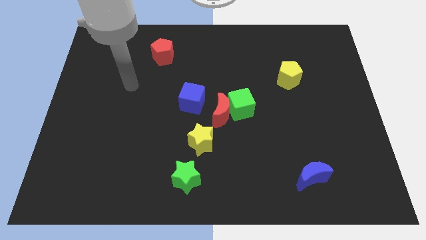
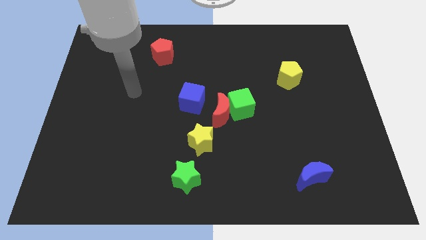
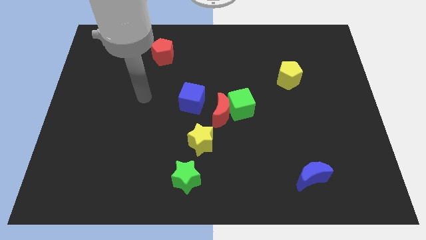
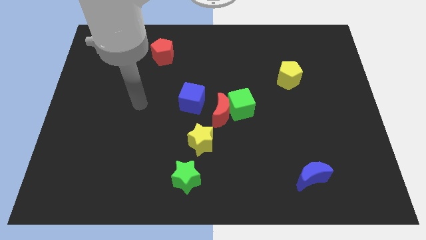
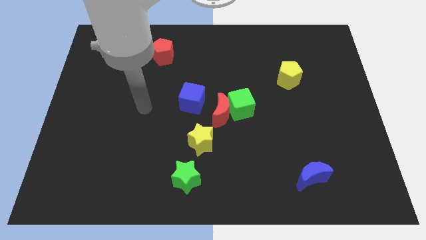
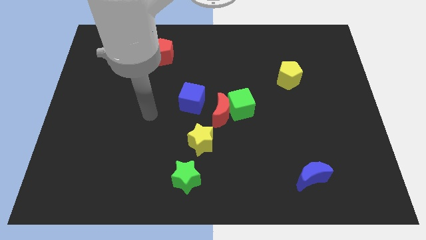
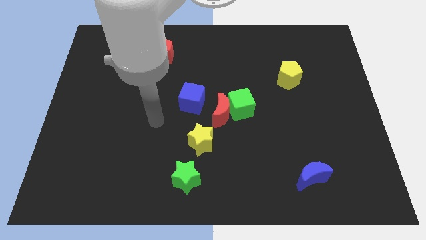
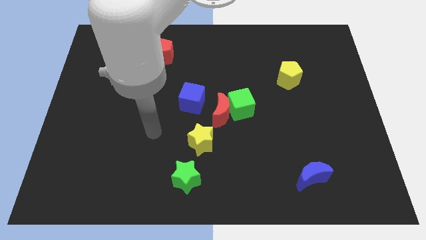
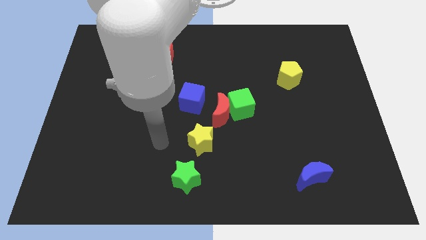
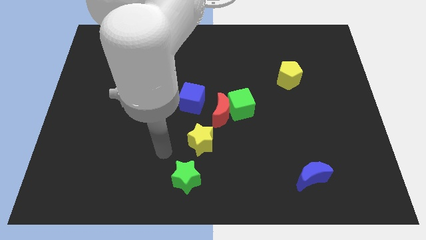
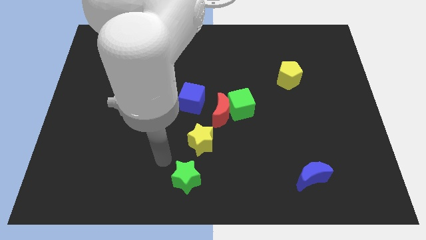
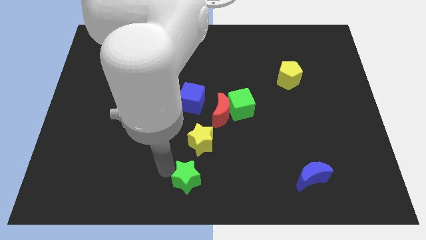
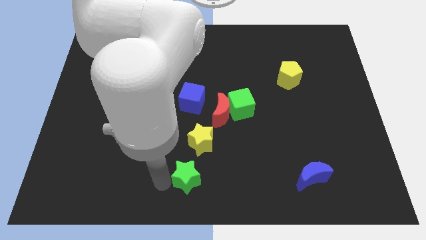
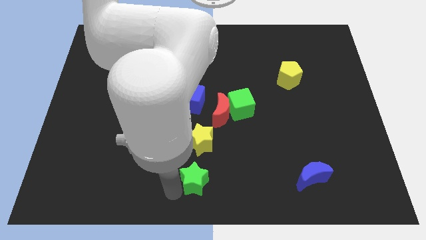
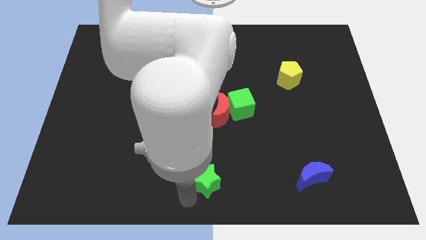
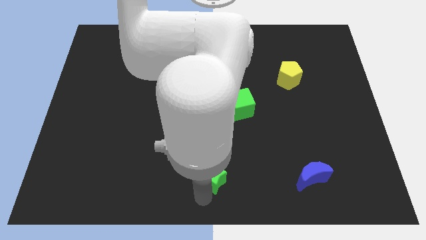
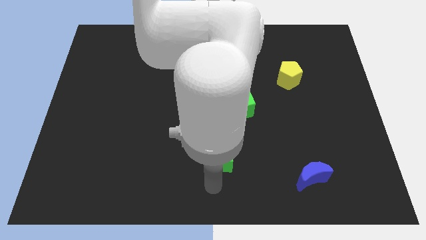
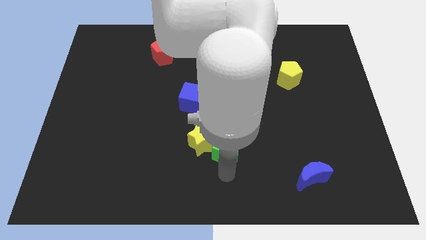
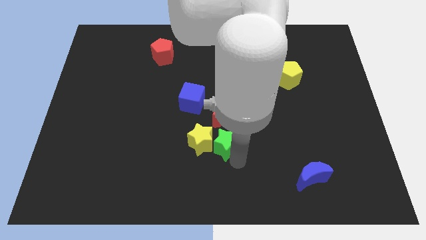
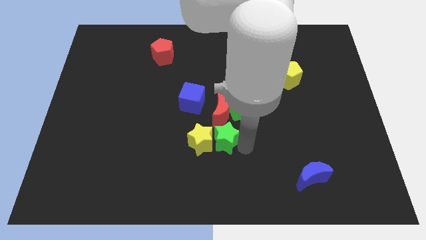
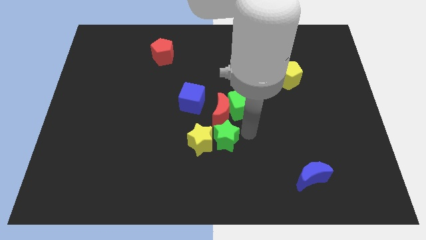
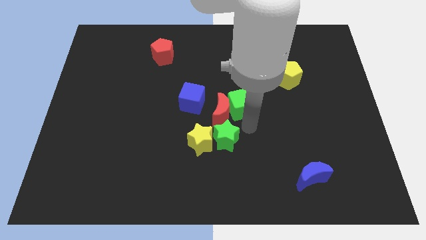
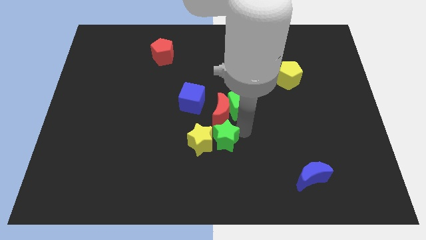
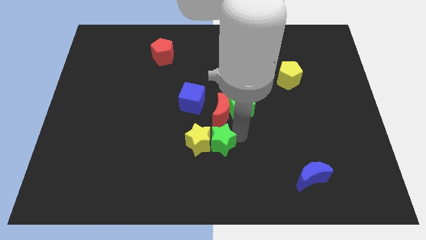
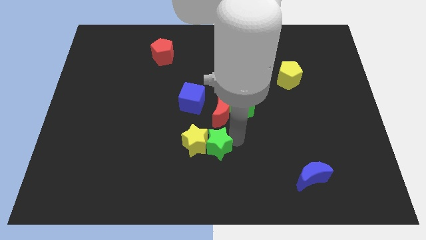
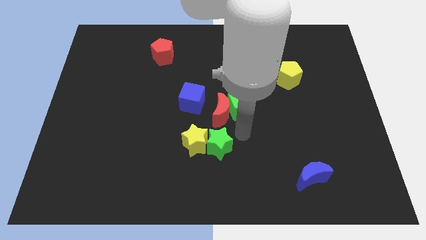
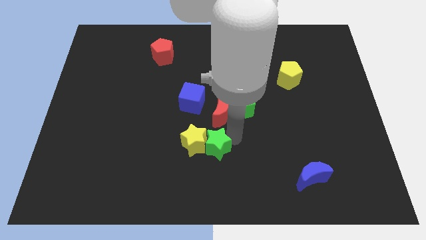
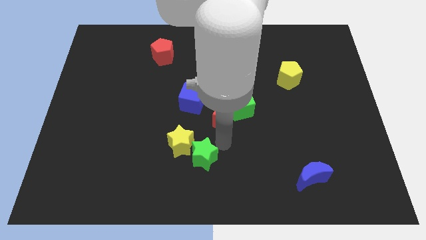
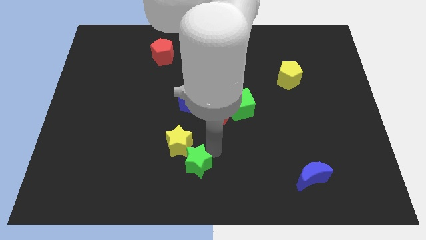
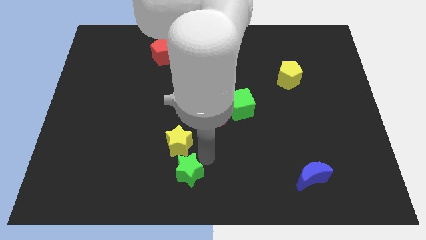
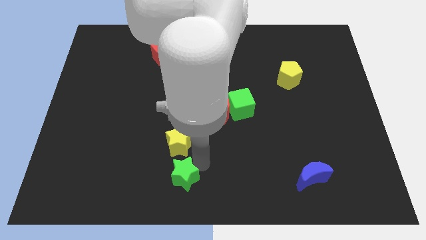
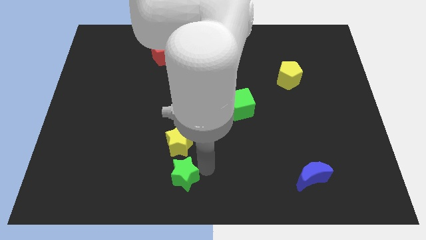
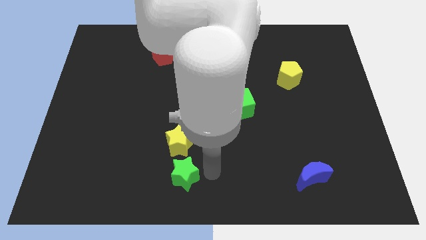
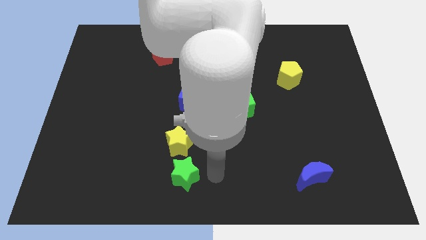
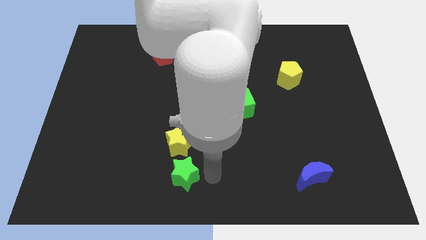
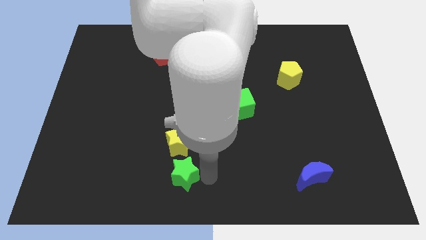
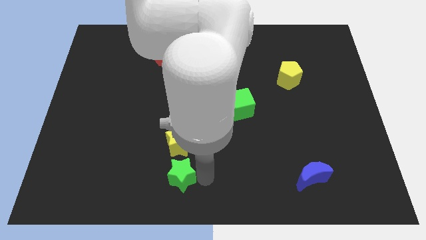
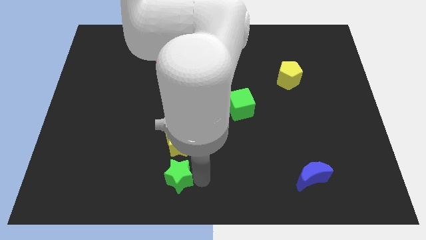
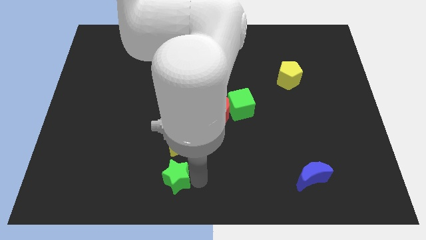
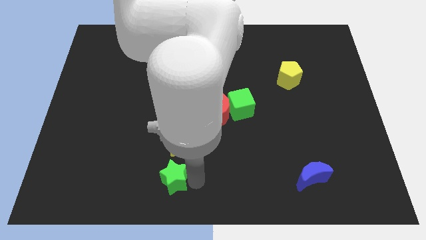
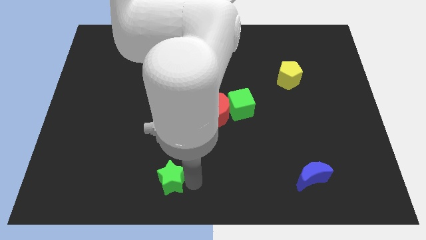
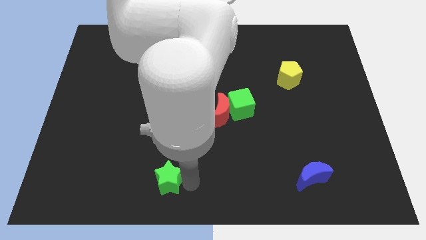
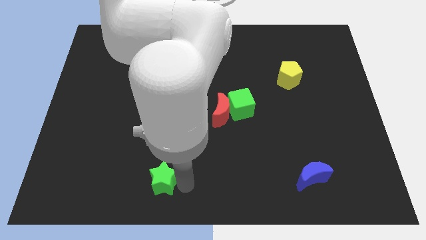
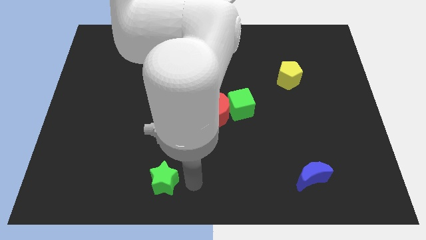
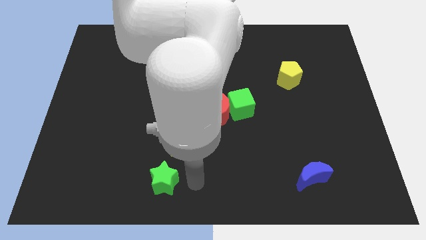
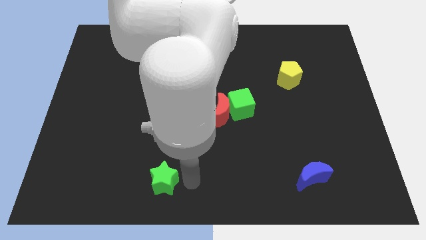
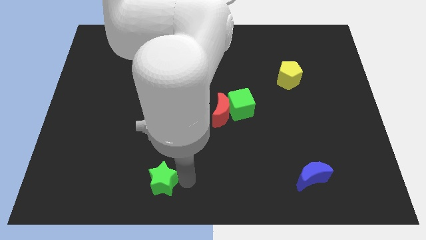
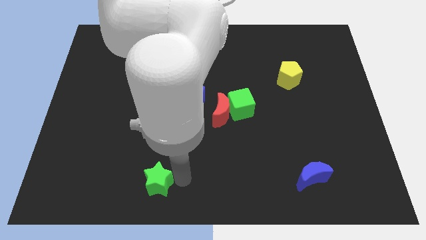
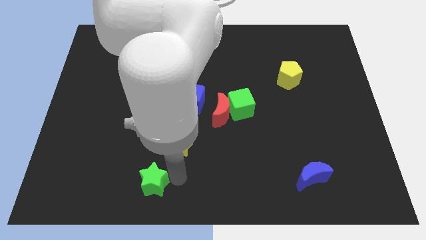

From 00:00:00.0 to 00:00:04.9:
push the green star to the left somewhat

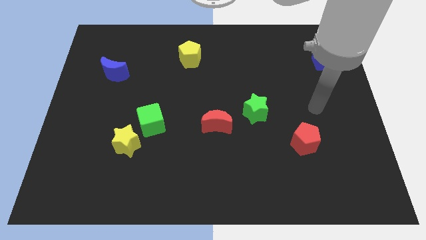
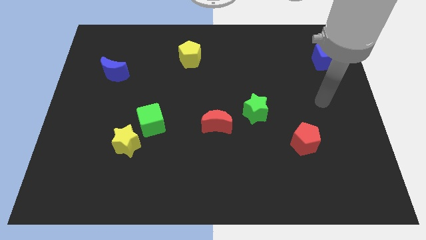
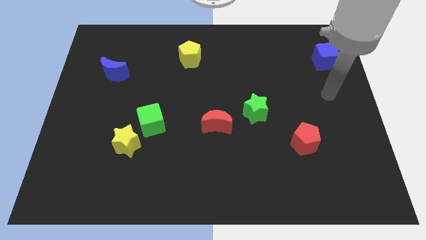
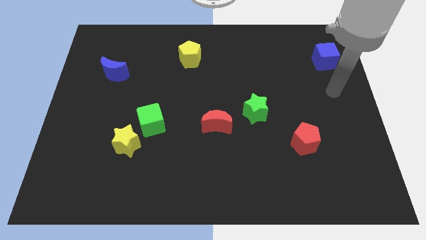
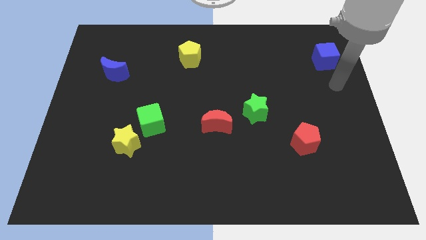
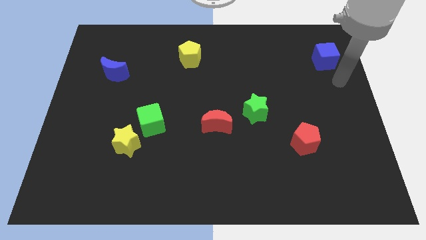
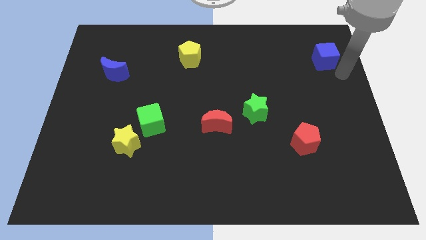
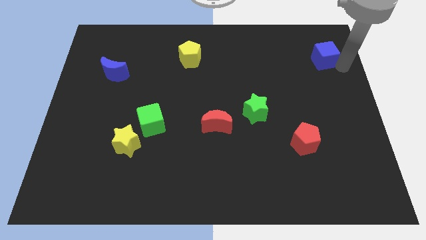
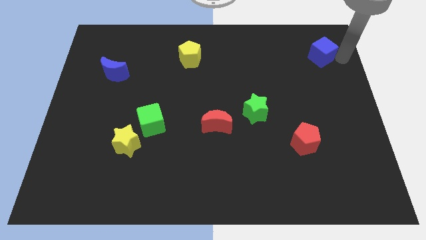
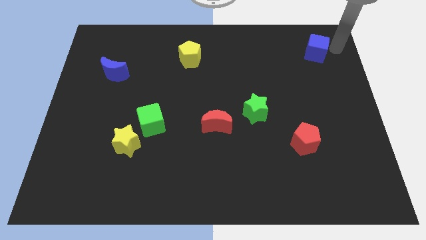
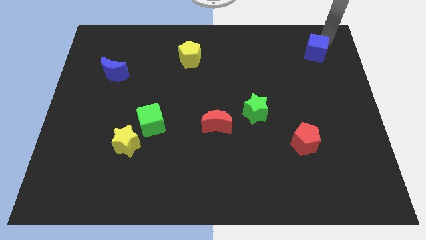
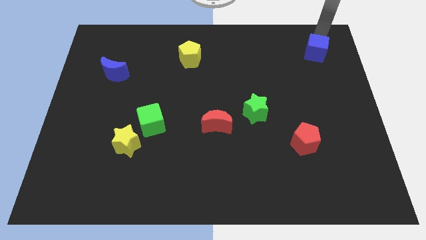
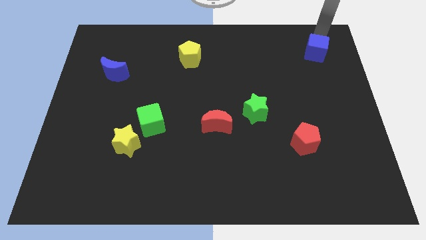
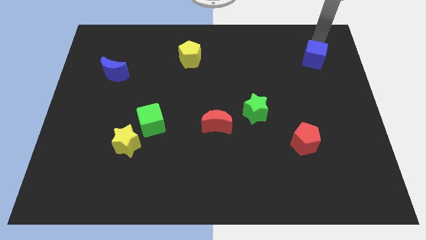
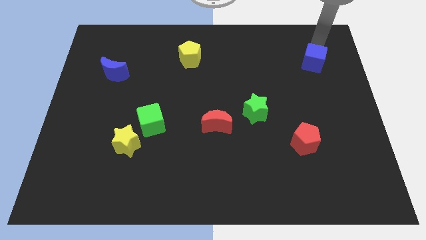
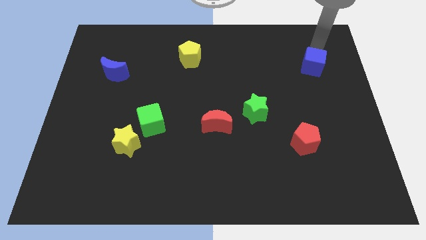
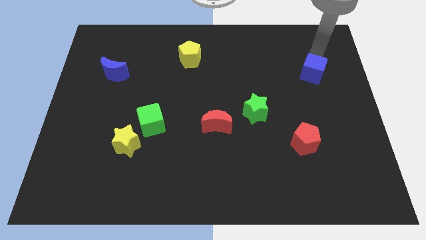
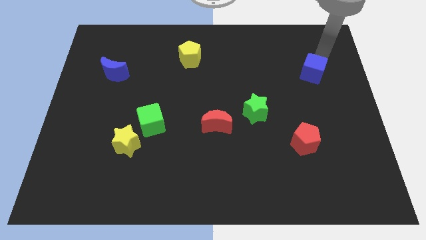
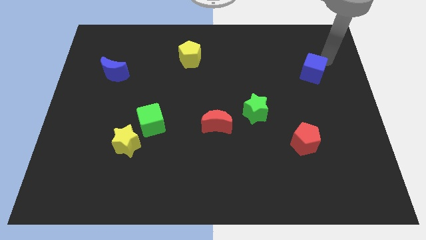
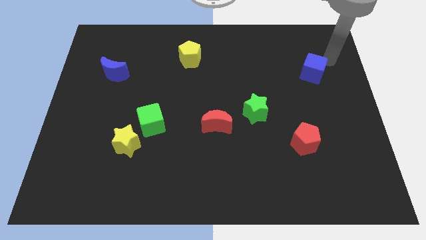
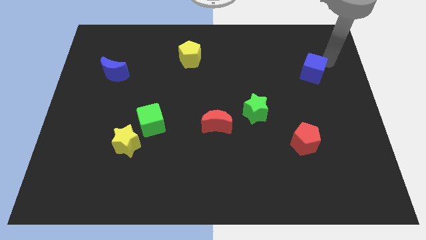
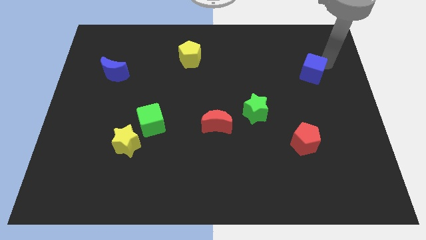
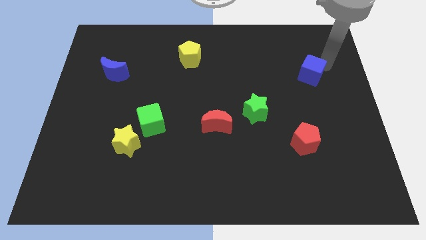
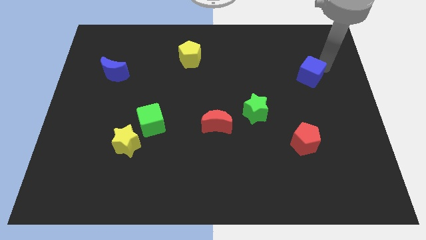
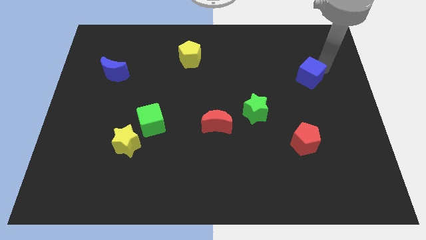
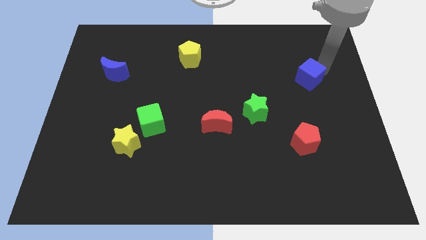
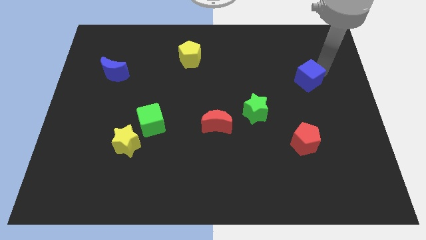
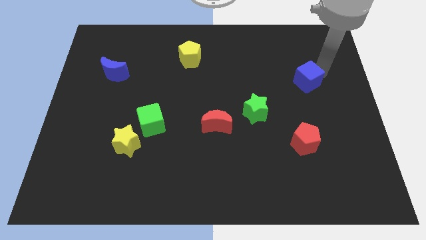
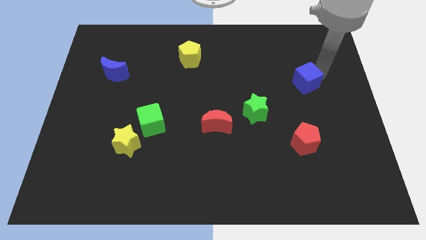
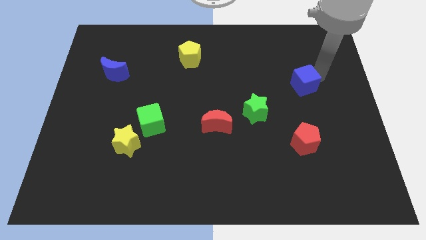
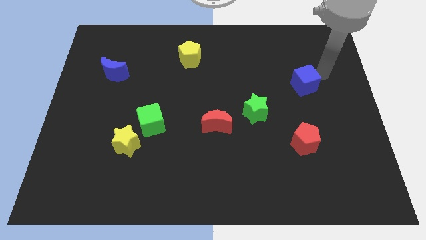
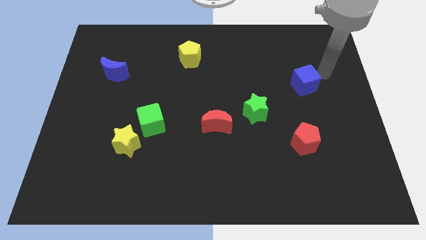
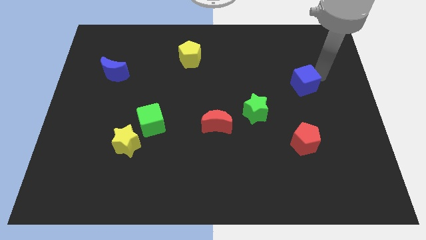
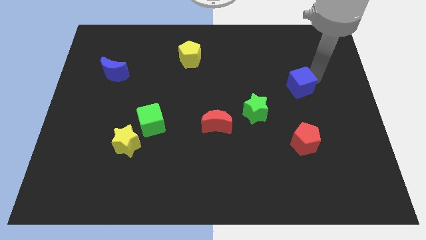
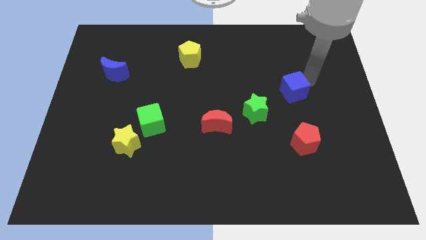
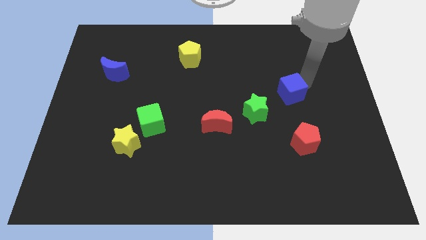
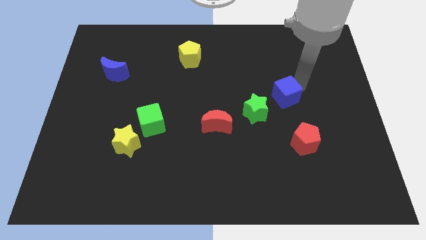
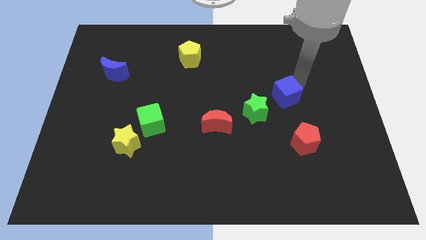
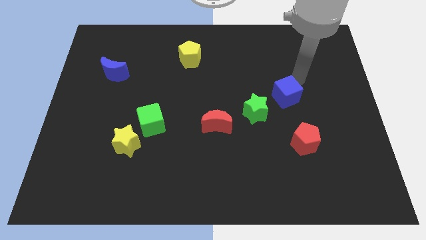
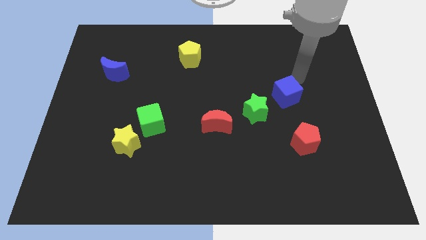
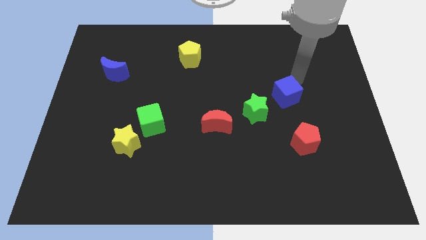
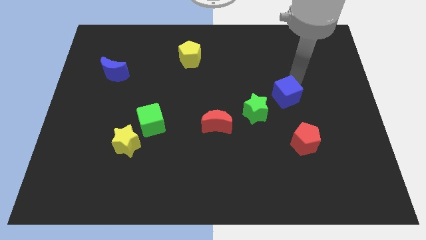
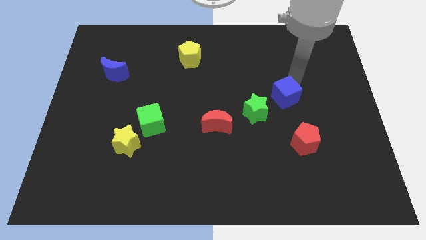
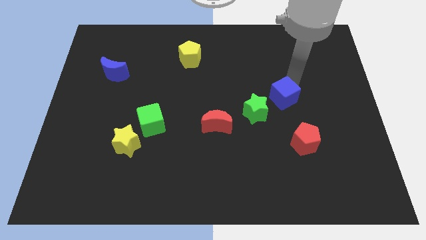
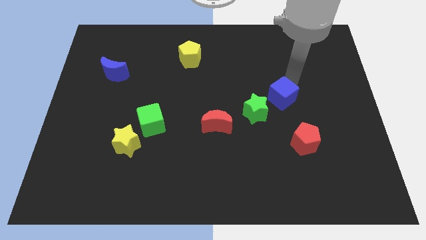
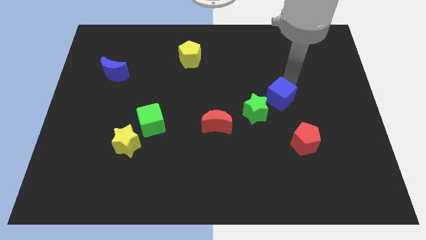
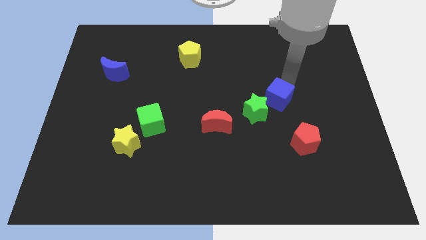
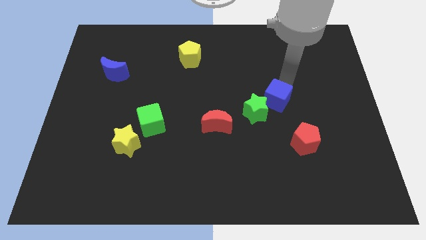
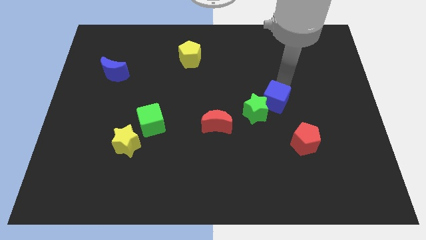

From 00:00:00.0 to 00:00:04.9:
move the blue cube down and left diagonally
